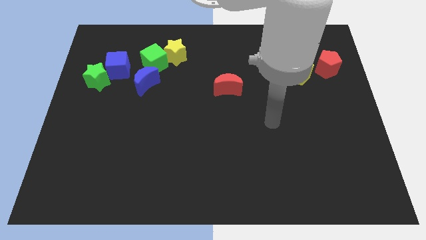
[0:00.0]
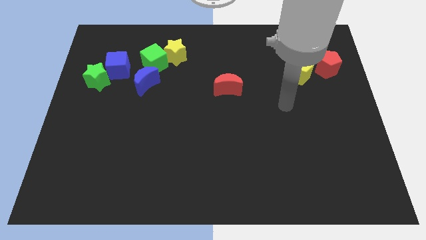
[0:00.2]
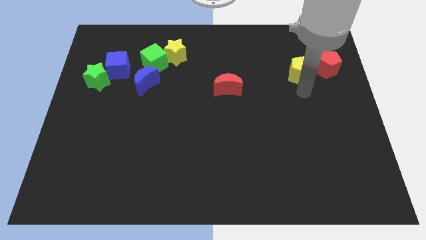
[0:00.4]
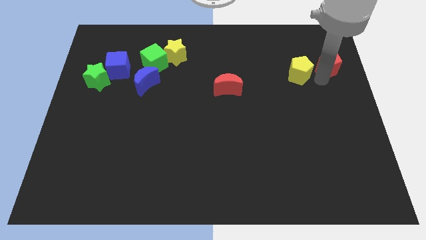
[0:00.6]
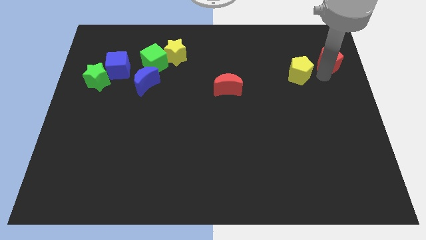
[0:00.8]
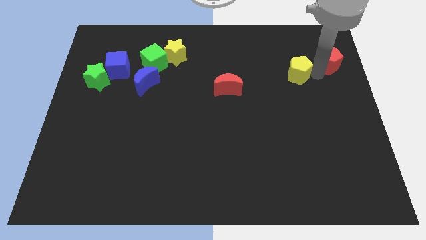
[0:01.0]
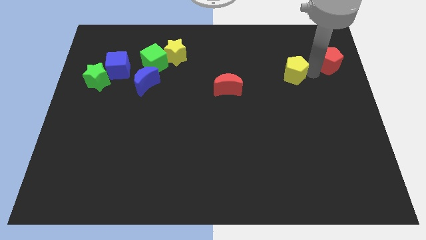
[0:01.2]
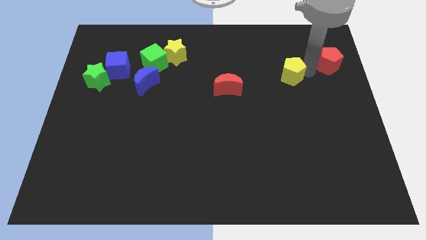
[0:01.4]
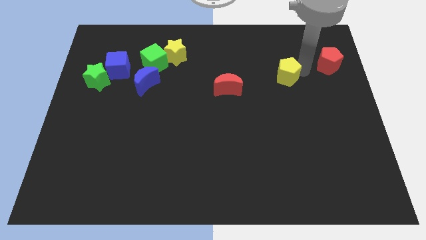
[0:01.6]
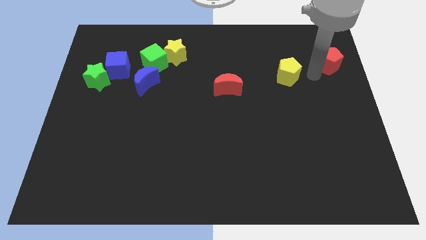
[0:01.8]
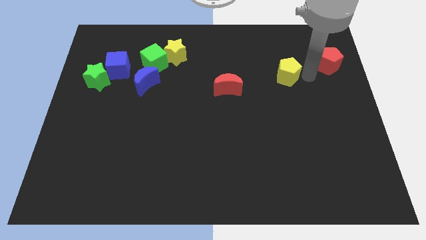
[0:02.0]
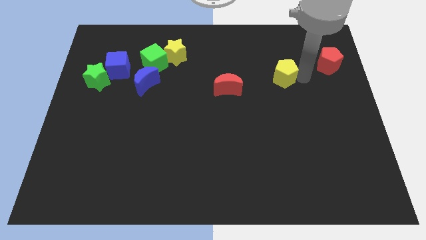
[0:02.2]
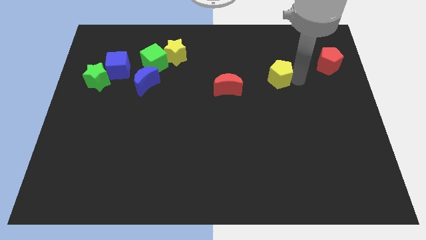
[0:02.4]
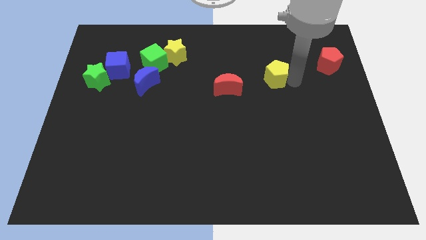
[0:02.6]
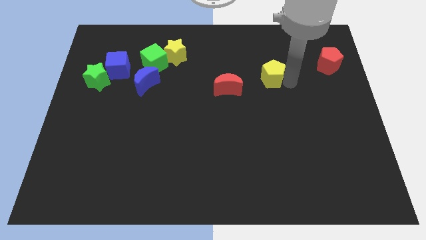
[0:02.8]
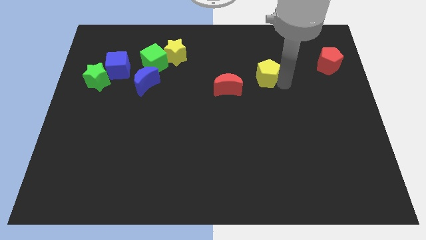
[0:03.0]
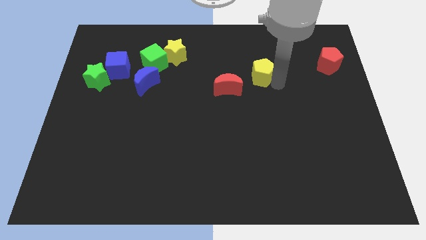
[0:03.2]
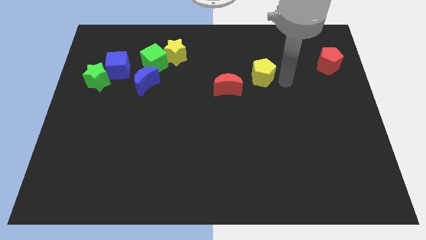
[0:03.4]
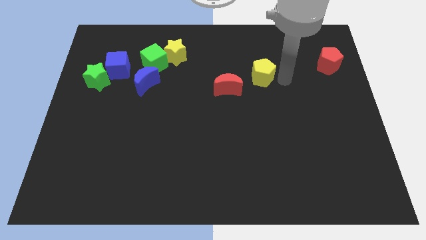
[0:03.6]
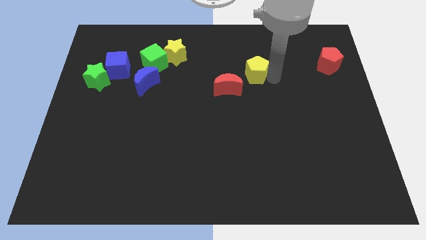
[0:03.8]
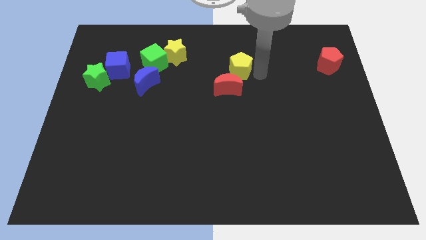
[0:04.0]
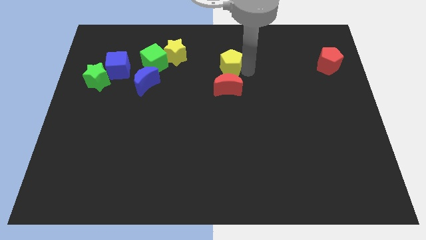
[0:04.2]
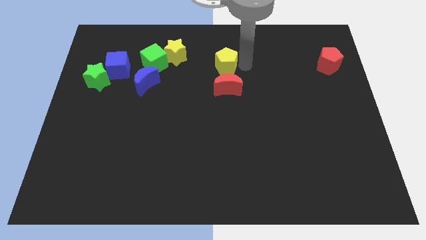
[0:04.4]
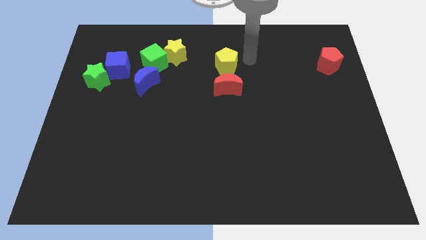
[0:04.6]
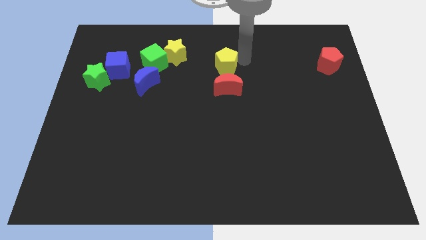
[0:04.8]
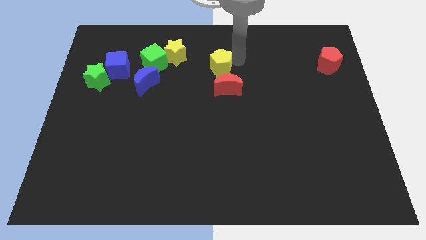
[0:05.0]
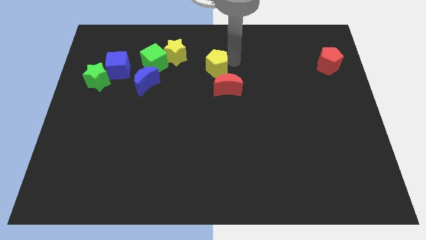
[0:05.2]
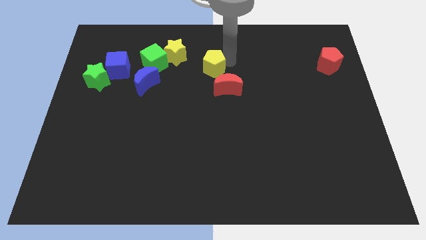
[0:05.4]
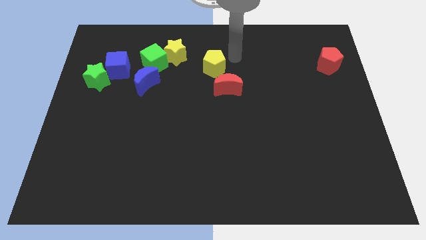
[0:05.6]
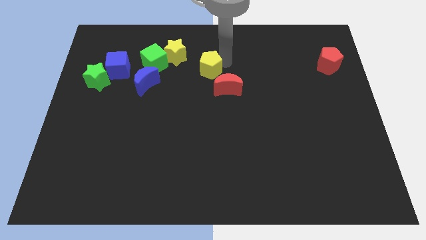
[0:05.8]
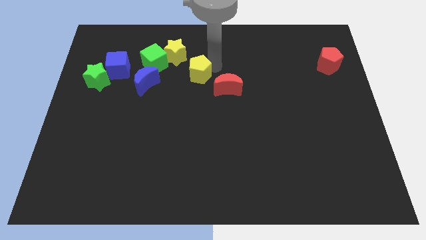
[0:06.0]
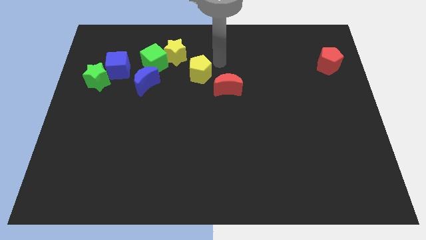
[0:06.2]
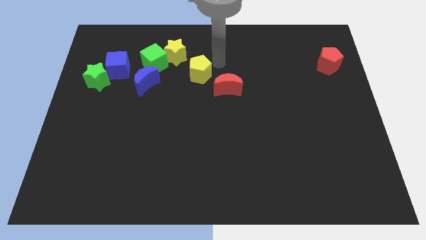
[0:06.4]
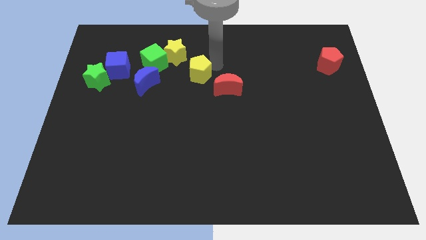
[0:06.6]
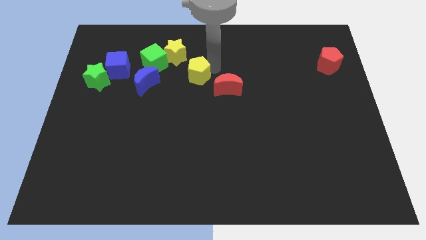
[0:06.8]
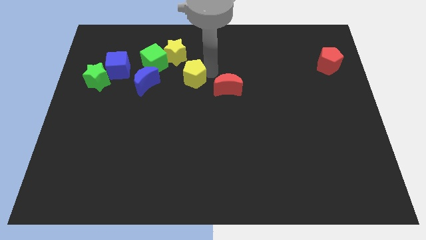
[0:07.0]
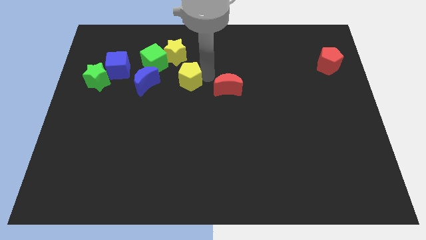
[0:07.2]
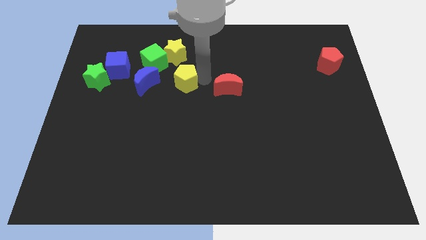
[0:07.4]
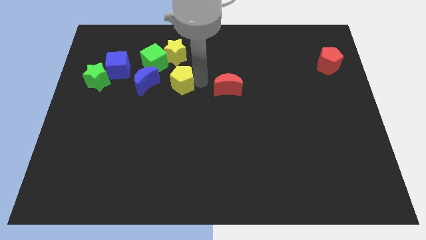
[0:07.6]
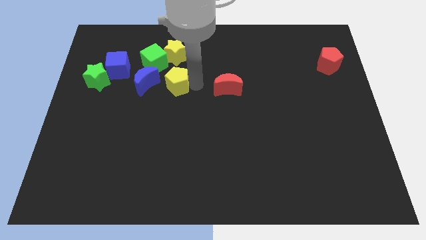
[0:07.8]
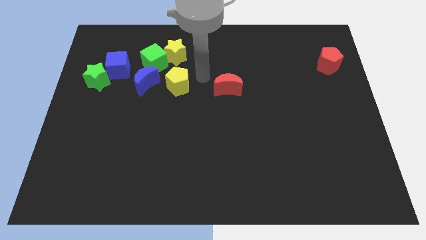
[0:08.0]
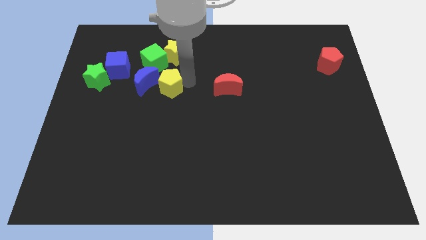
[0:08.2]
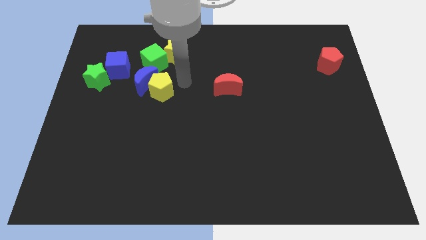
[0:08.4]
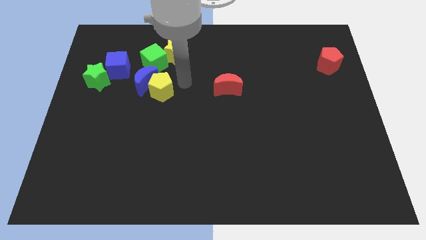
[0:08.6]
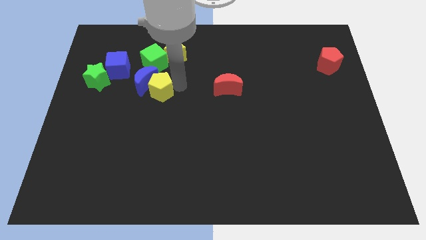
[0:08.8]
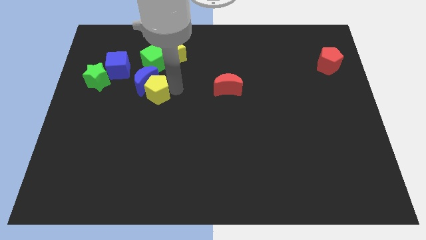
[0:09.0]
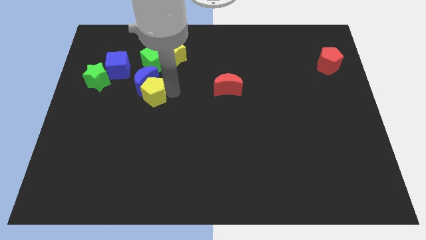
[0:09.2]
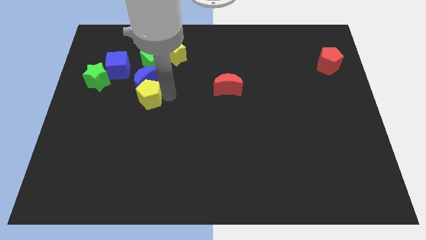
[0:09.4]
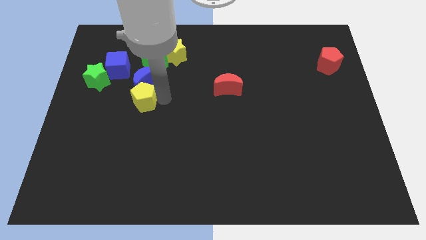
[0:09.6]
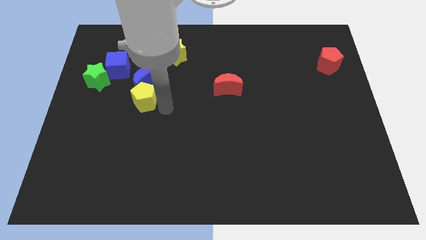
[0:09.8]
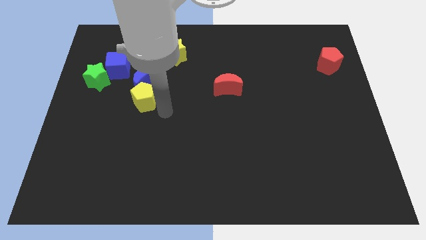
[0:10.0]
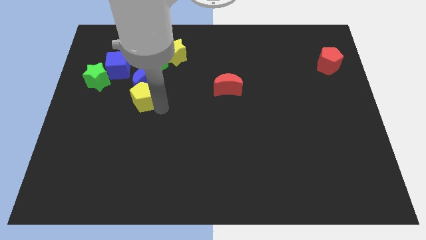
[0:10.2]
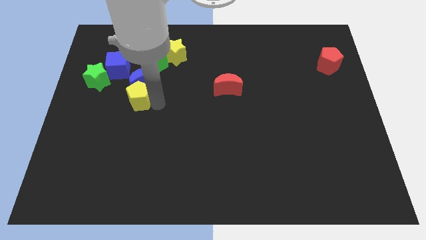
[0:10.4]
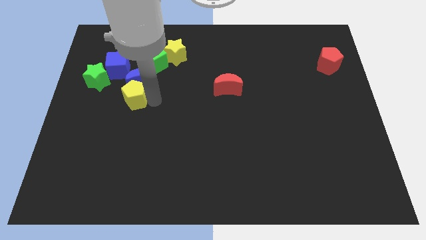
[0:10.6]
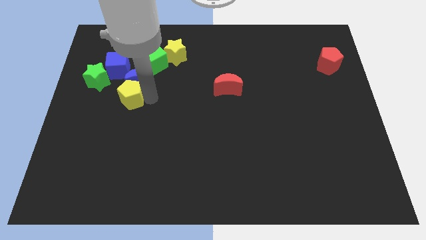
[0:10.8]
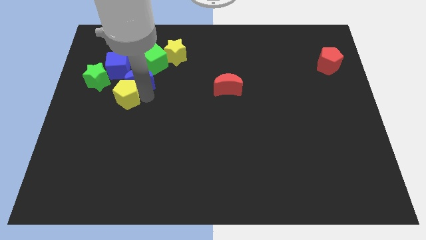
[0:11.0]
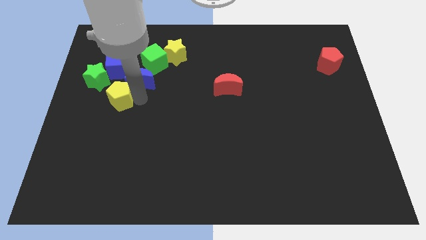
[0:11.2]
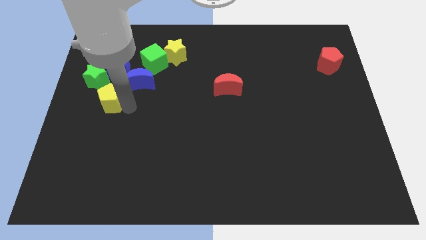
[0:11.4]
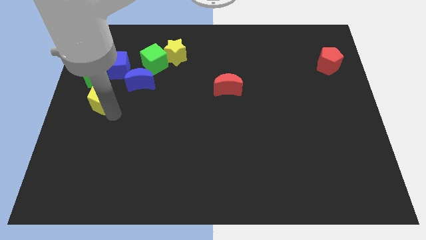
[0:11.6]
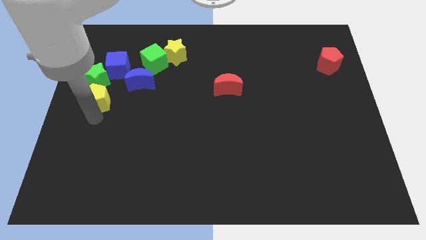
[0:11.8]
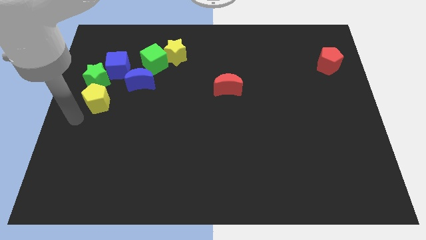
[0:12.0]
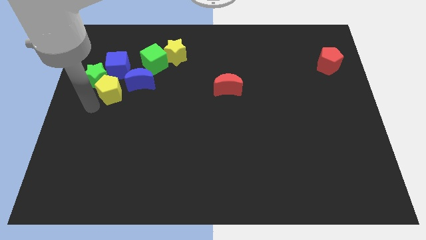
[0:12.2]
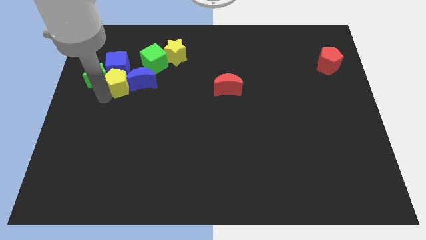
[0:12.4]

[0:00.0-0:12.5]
slide the yellow pentagon diagonally down and to the left of the green cube
